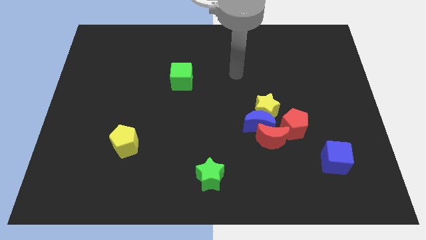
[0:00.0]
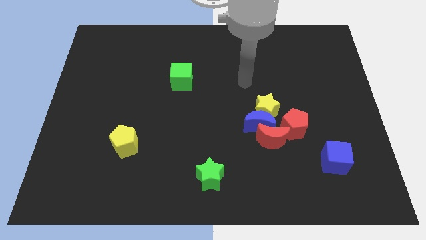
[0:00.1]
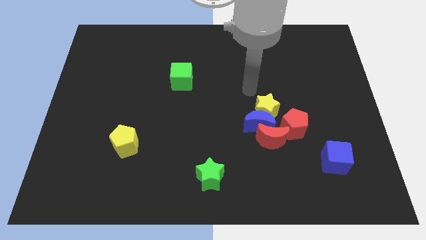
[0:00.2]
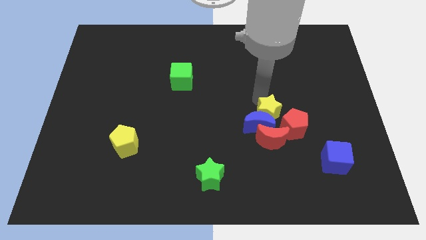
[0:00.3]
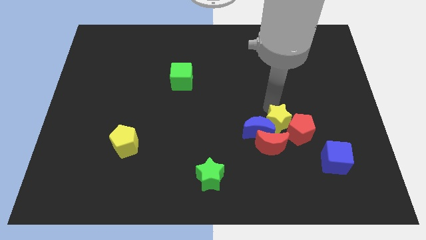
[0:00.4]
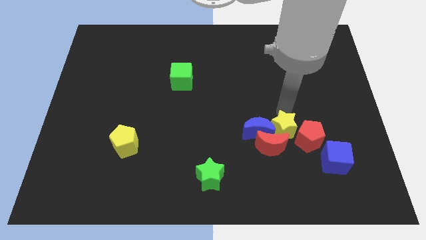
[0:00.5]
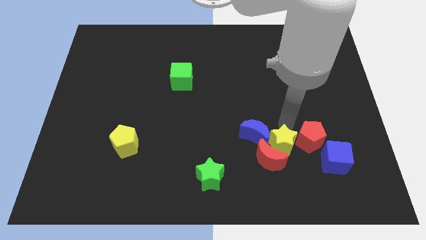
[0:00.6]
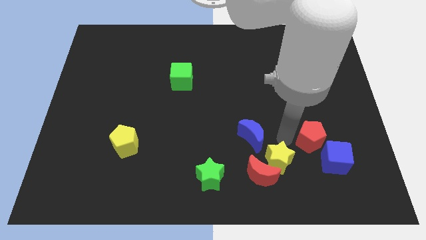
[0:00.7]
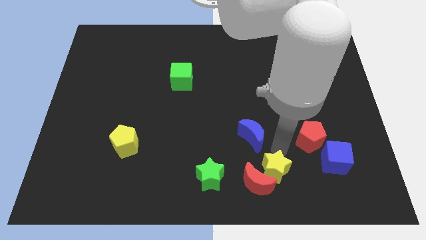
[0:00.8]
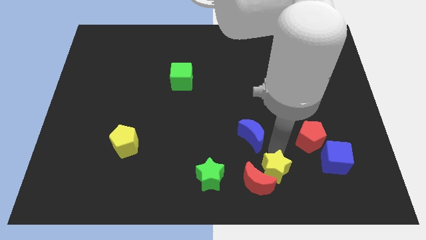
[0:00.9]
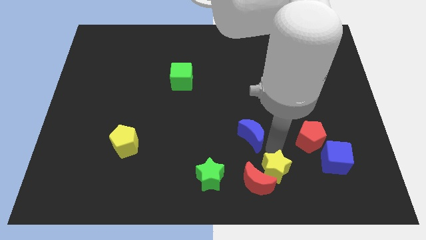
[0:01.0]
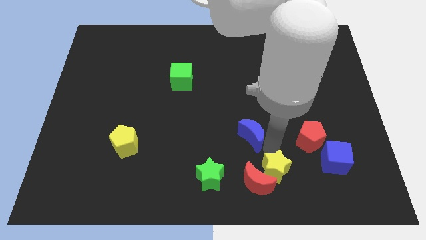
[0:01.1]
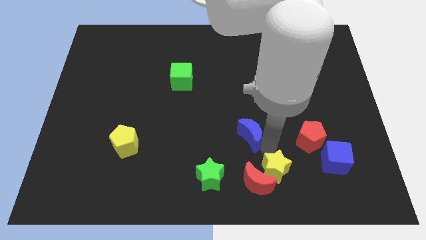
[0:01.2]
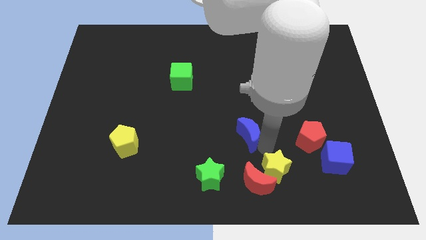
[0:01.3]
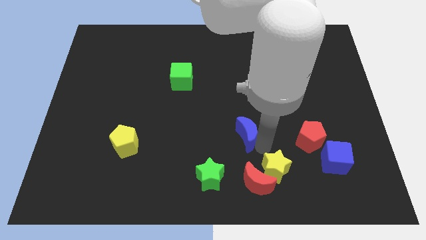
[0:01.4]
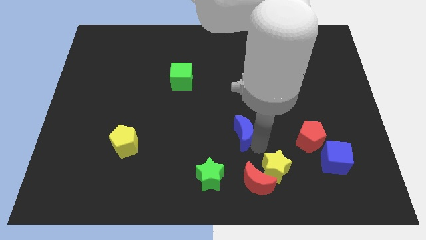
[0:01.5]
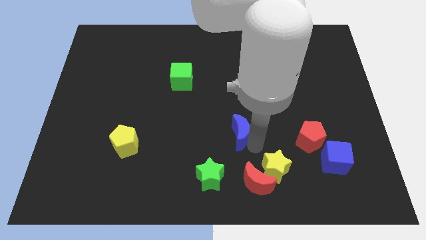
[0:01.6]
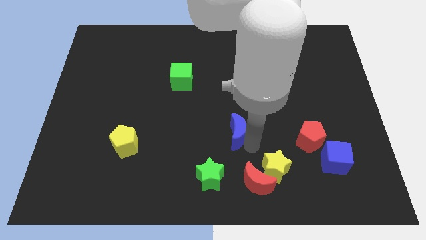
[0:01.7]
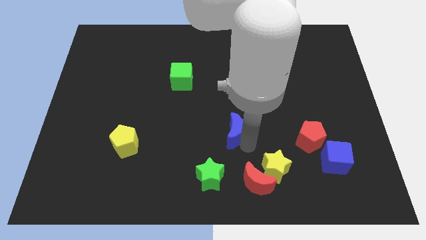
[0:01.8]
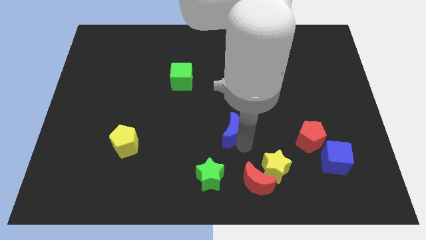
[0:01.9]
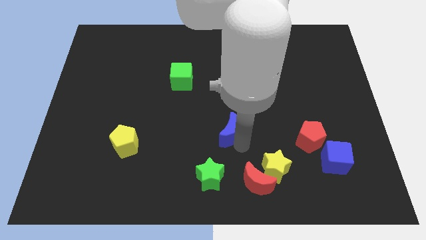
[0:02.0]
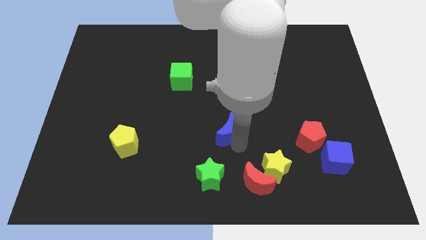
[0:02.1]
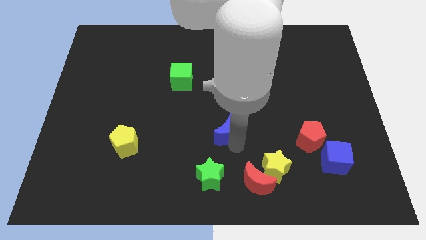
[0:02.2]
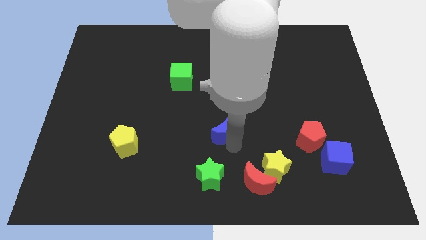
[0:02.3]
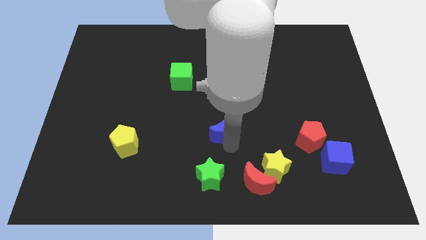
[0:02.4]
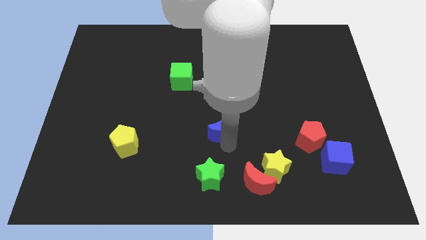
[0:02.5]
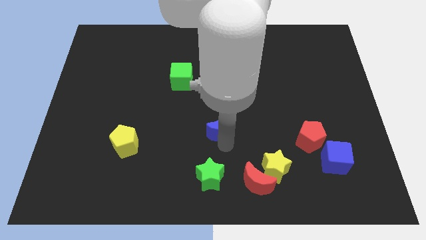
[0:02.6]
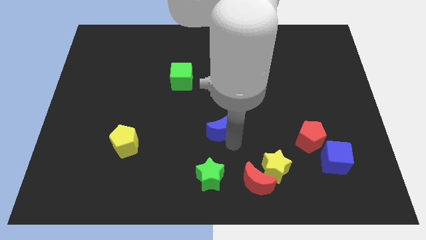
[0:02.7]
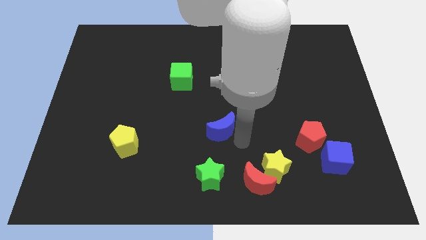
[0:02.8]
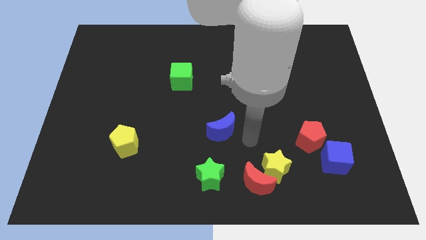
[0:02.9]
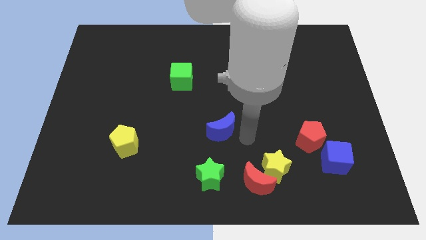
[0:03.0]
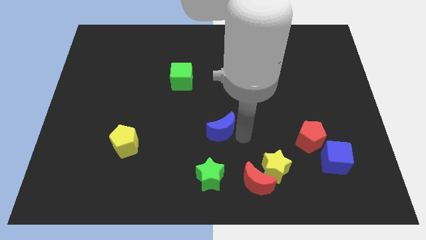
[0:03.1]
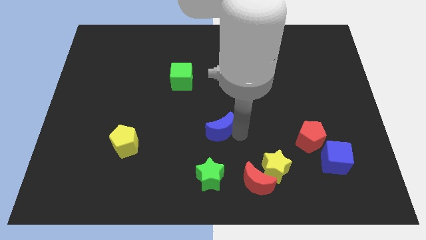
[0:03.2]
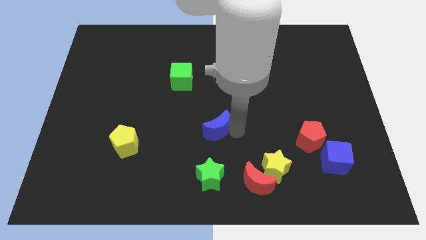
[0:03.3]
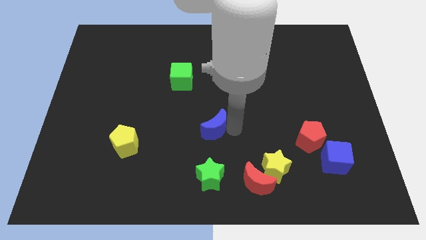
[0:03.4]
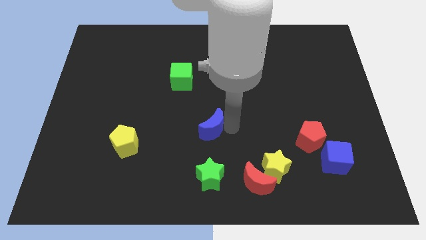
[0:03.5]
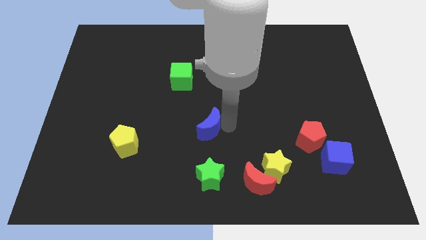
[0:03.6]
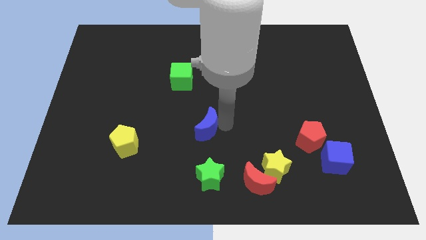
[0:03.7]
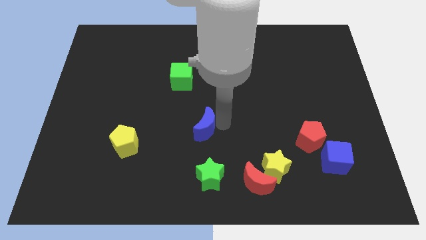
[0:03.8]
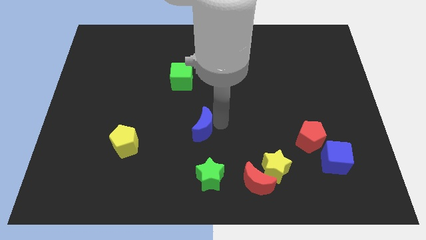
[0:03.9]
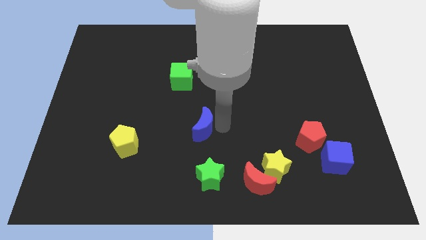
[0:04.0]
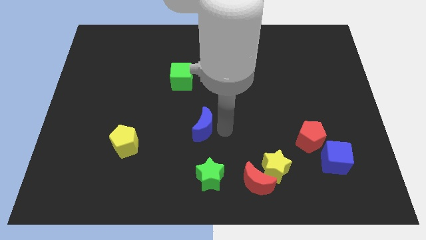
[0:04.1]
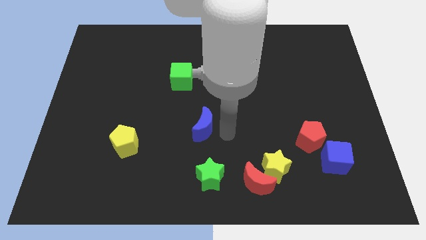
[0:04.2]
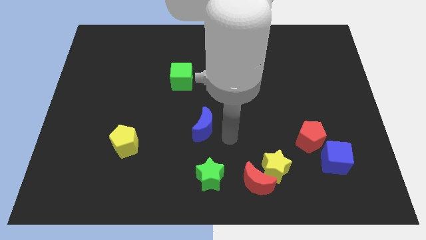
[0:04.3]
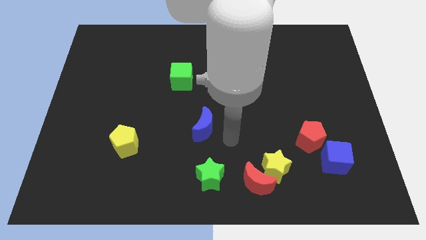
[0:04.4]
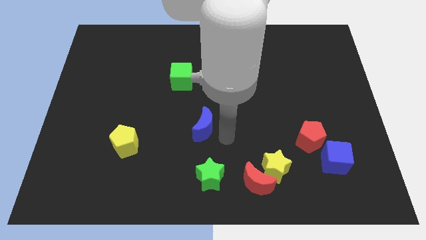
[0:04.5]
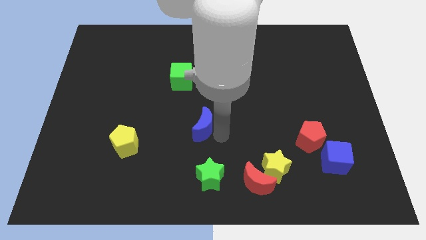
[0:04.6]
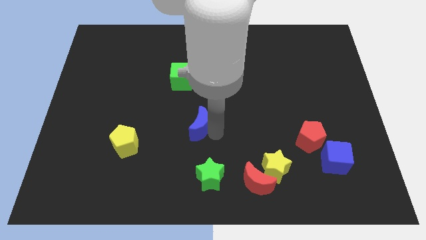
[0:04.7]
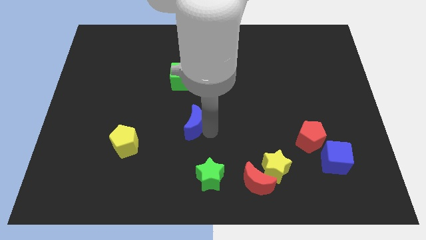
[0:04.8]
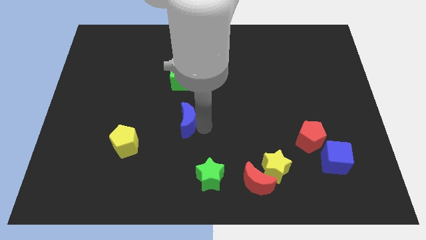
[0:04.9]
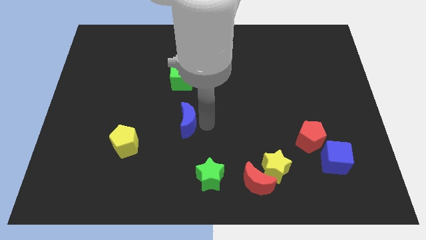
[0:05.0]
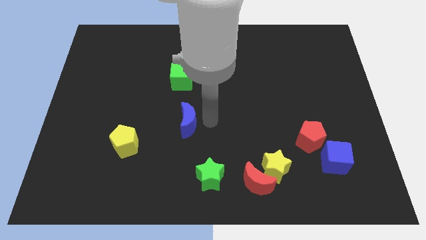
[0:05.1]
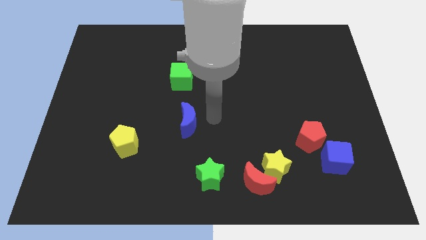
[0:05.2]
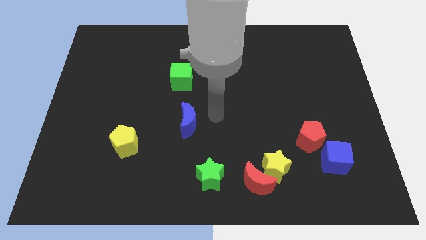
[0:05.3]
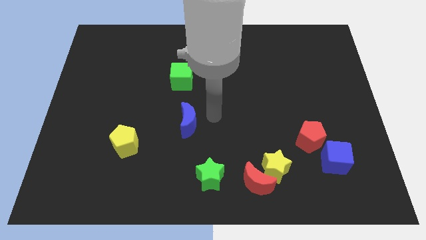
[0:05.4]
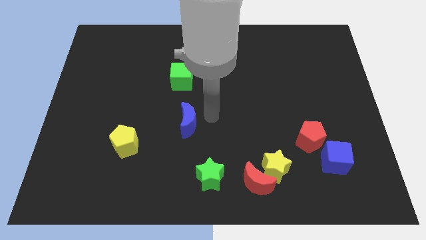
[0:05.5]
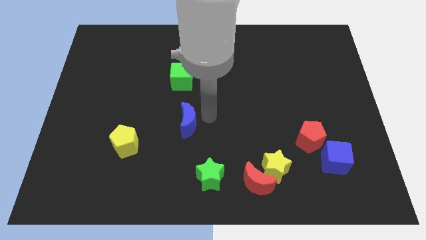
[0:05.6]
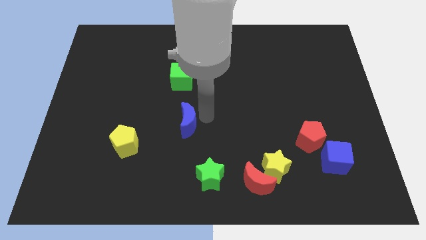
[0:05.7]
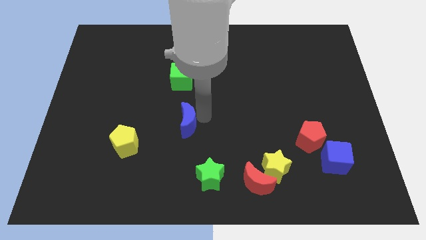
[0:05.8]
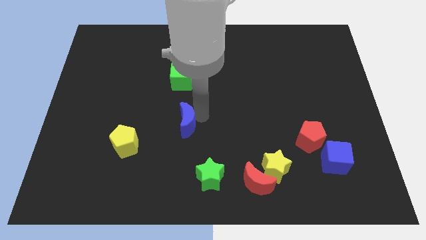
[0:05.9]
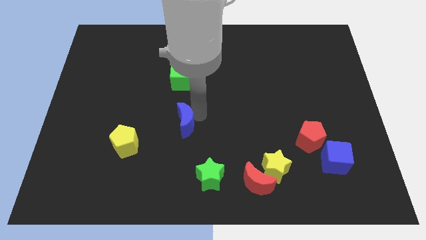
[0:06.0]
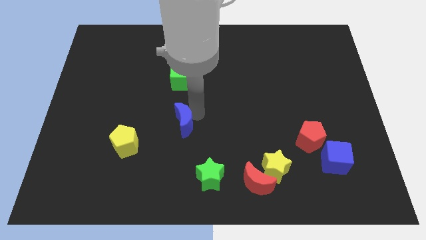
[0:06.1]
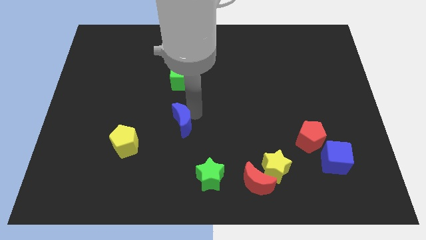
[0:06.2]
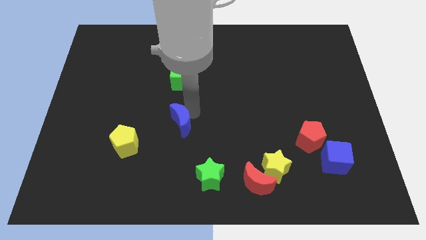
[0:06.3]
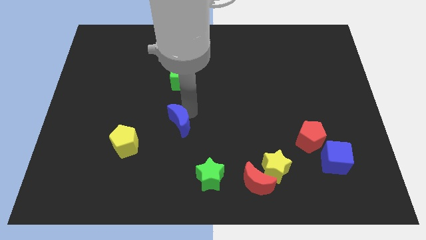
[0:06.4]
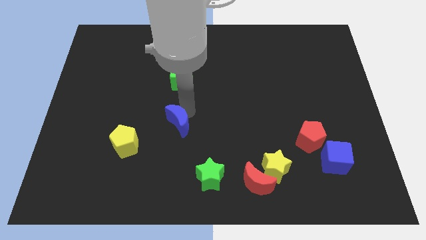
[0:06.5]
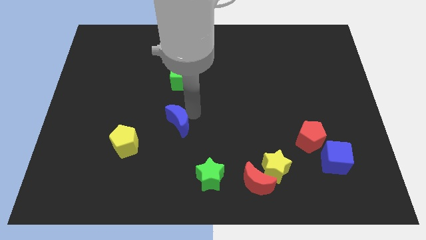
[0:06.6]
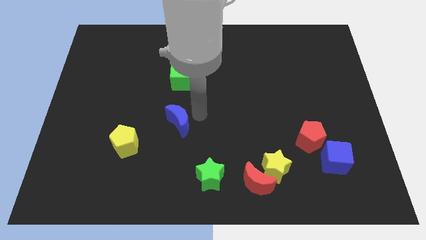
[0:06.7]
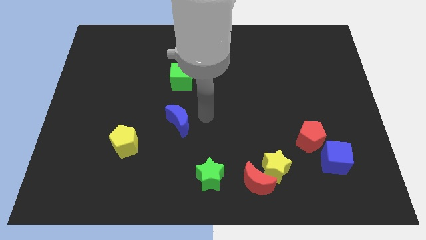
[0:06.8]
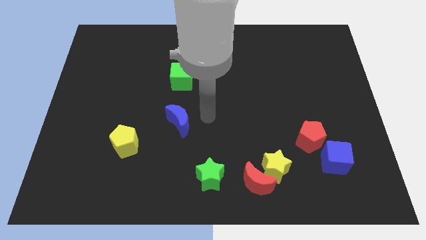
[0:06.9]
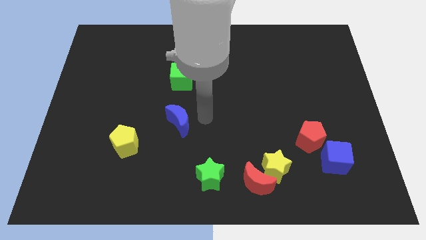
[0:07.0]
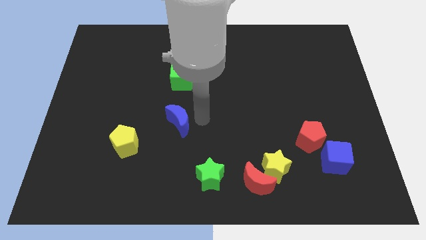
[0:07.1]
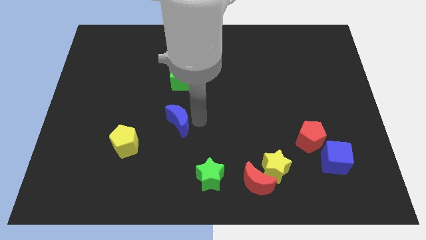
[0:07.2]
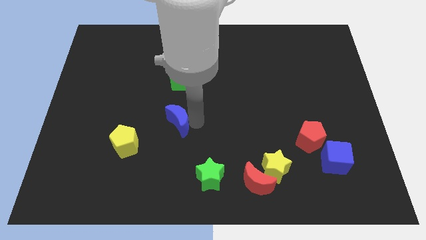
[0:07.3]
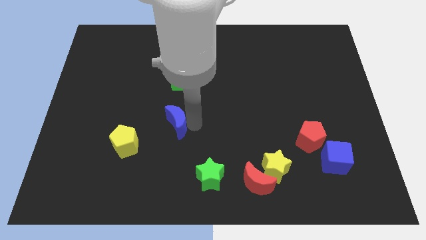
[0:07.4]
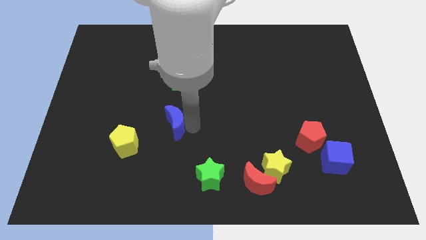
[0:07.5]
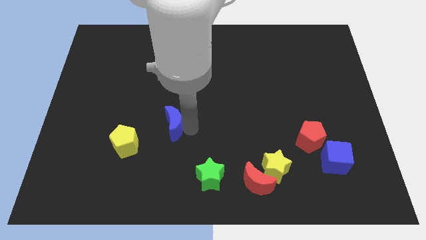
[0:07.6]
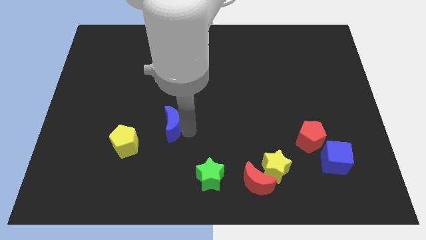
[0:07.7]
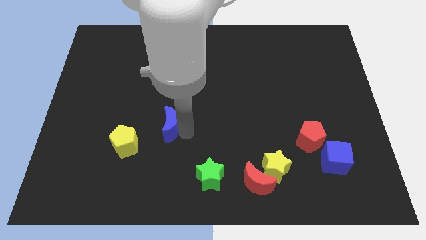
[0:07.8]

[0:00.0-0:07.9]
move the blue moon to the left

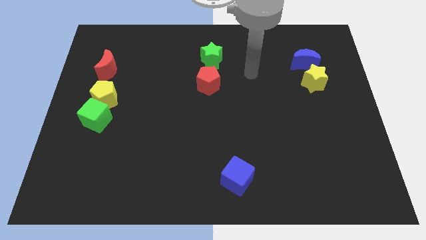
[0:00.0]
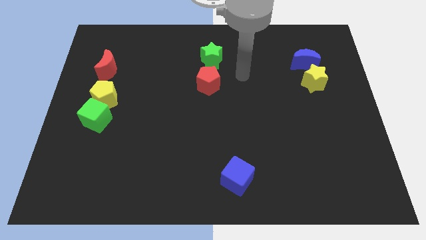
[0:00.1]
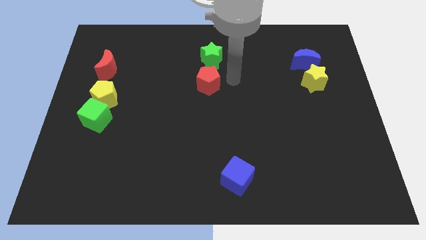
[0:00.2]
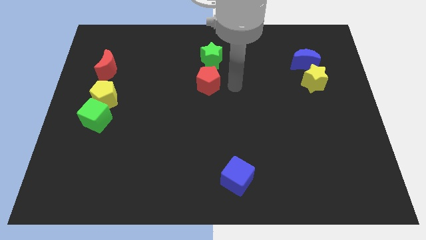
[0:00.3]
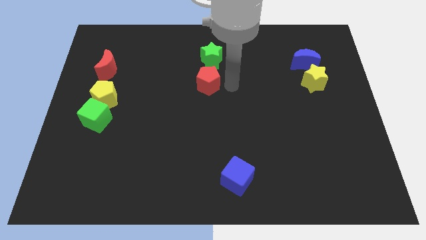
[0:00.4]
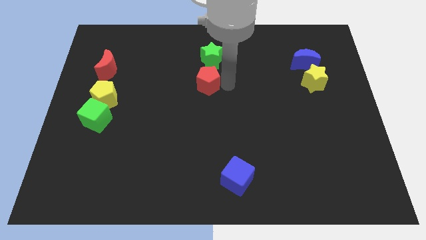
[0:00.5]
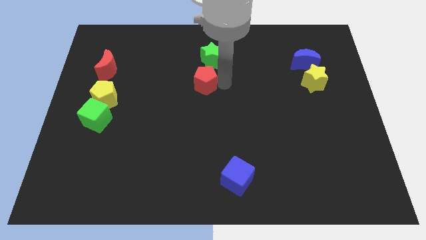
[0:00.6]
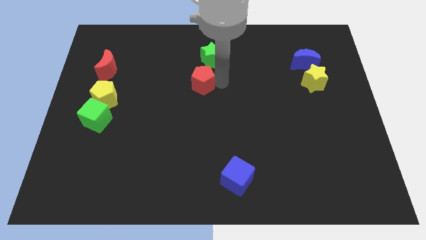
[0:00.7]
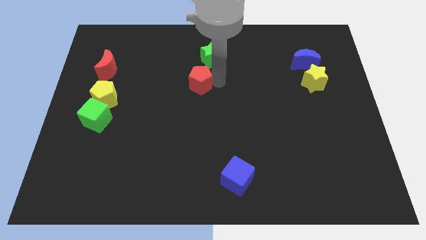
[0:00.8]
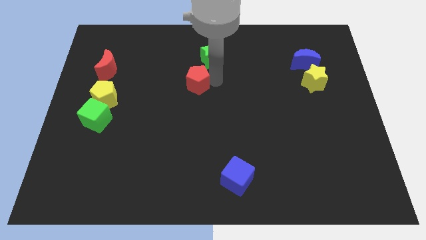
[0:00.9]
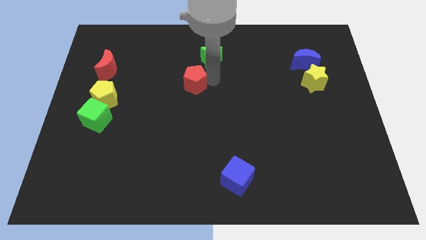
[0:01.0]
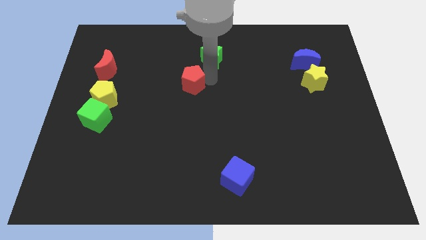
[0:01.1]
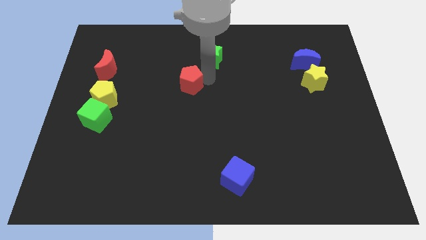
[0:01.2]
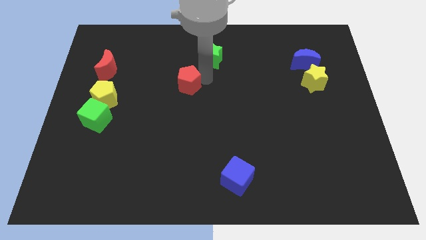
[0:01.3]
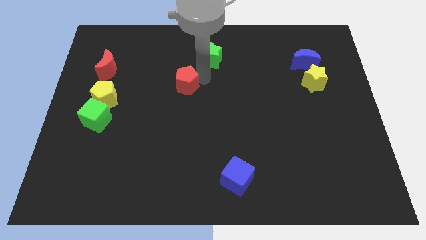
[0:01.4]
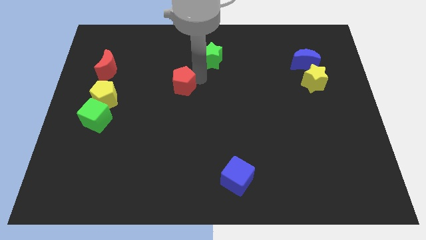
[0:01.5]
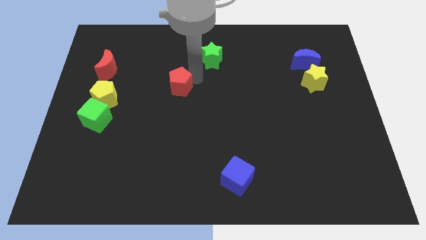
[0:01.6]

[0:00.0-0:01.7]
slightly slide the red pentagon to the left
